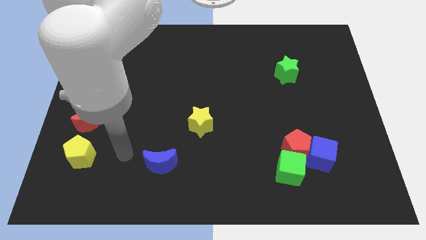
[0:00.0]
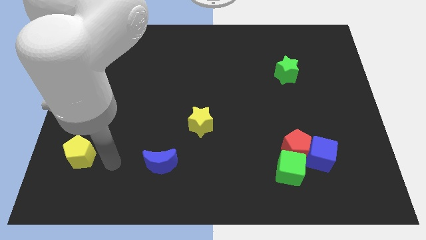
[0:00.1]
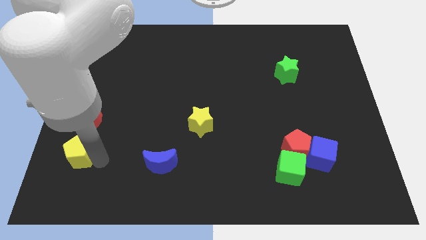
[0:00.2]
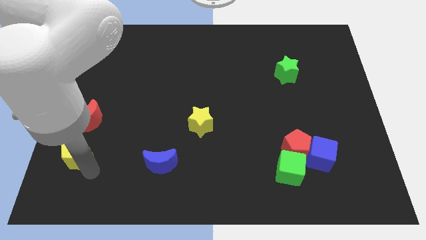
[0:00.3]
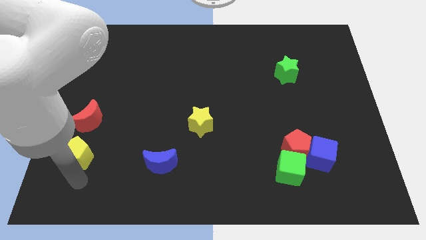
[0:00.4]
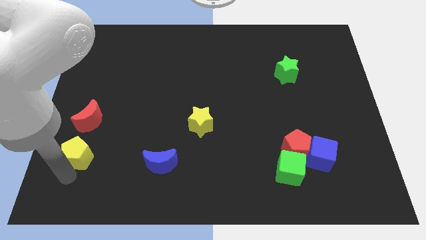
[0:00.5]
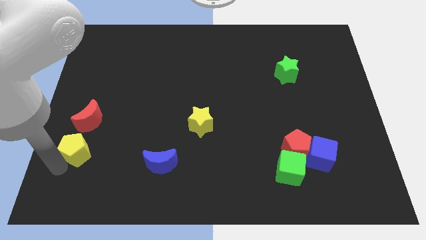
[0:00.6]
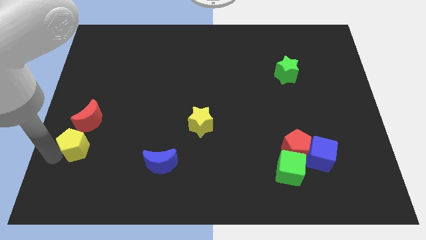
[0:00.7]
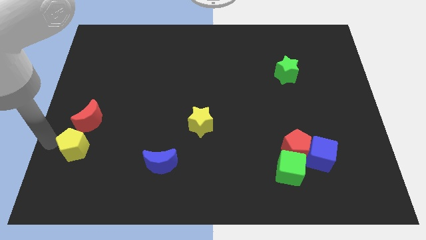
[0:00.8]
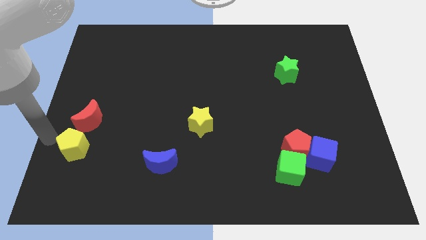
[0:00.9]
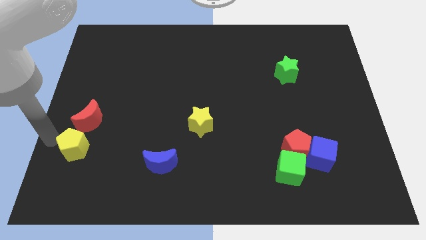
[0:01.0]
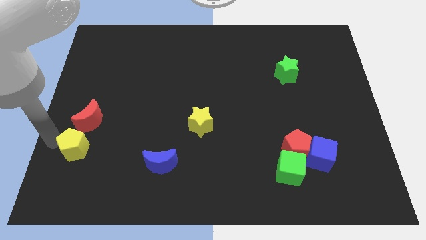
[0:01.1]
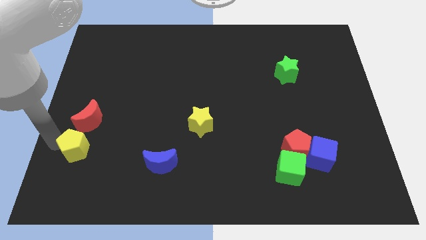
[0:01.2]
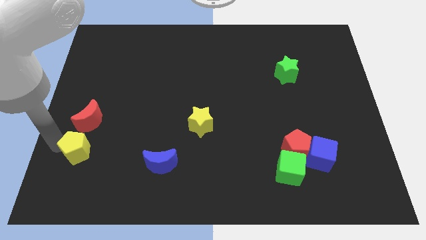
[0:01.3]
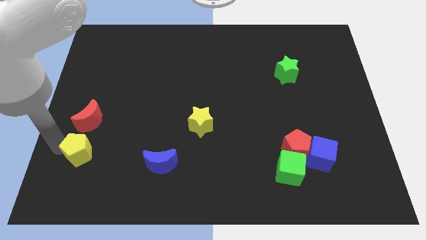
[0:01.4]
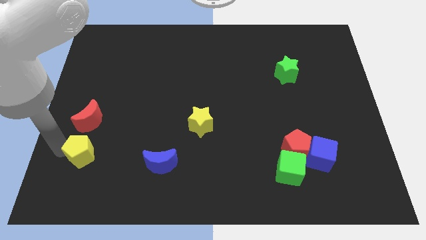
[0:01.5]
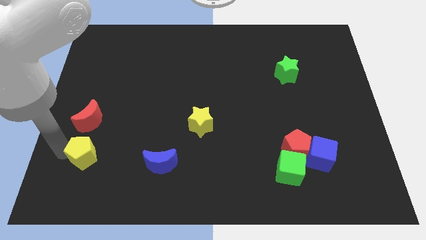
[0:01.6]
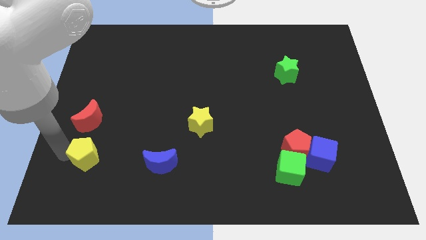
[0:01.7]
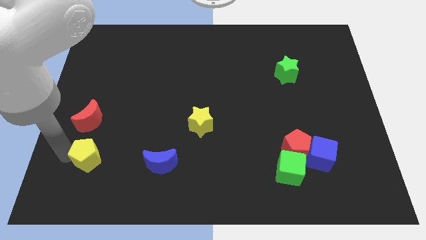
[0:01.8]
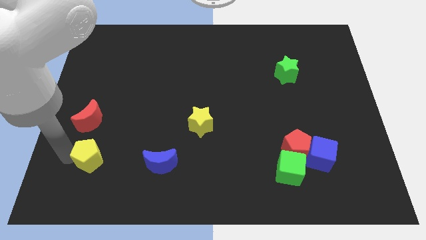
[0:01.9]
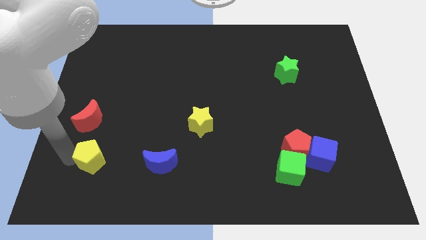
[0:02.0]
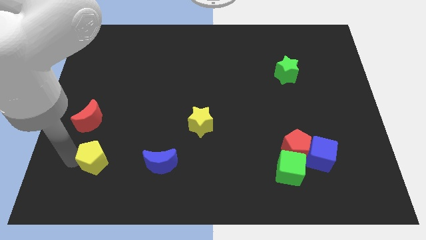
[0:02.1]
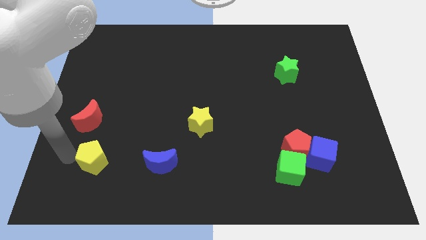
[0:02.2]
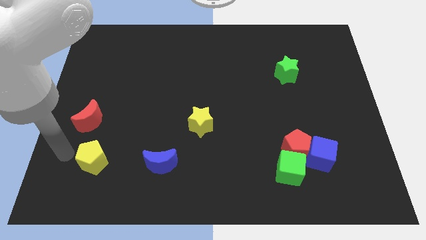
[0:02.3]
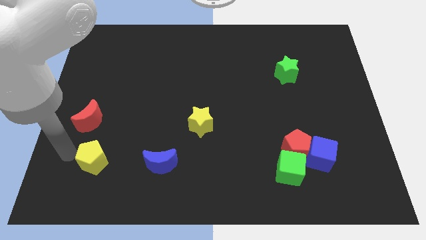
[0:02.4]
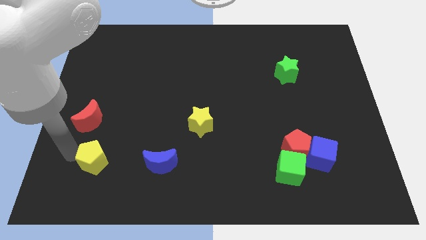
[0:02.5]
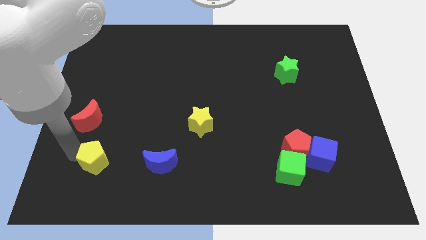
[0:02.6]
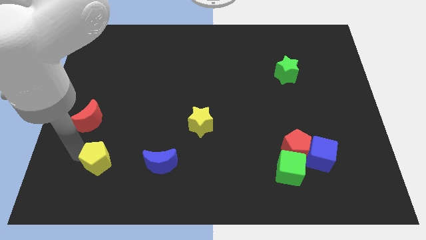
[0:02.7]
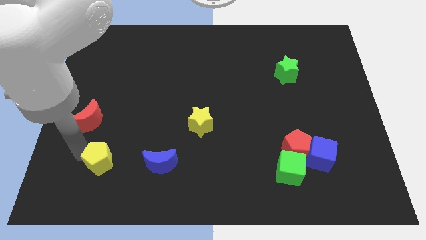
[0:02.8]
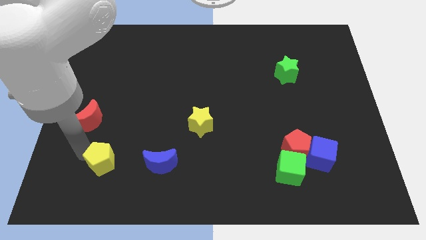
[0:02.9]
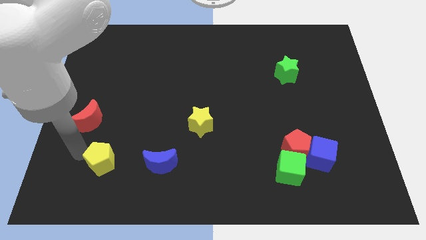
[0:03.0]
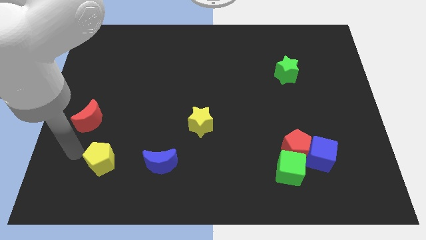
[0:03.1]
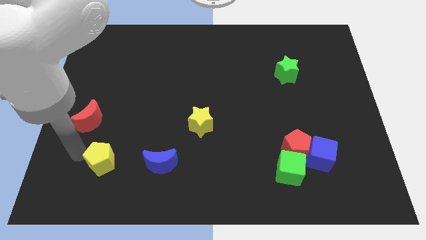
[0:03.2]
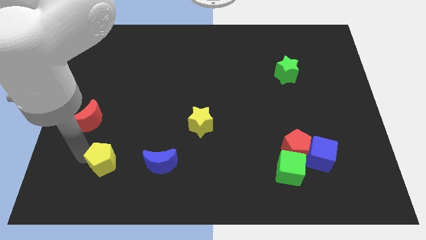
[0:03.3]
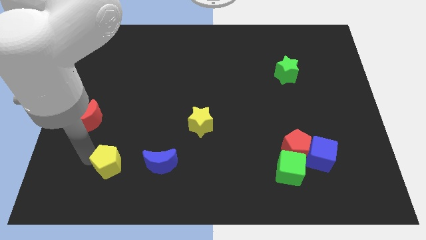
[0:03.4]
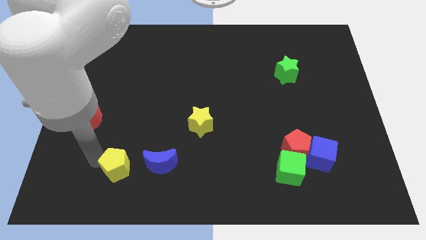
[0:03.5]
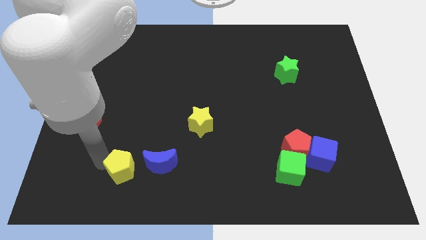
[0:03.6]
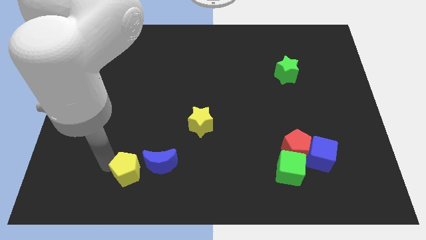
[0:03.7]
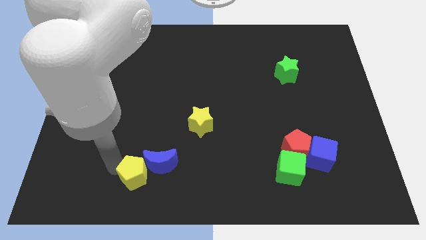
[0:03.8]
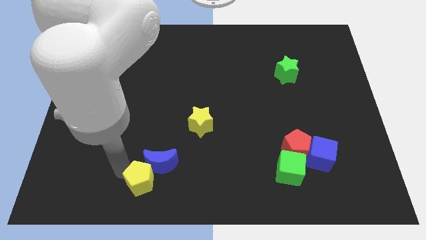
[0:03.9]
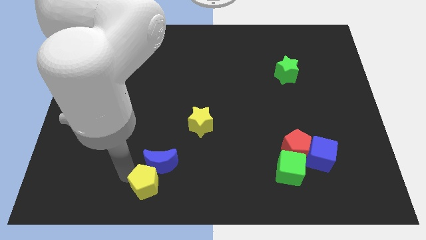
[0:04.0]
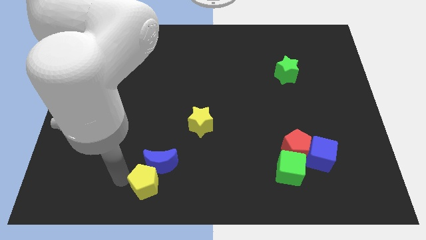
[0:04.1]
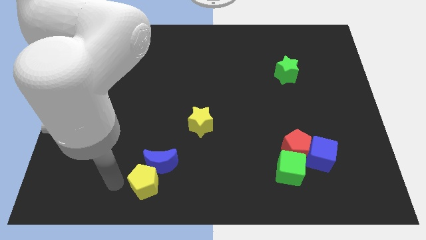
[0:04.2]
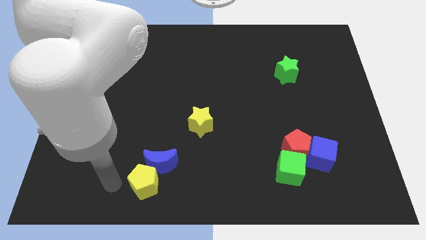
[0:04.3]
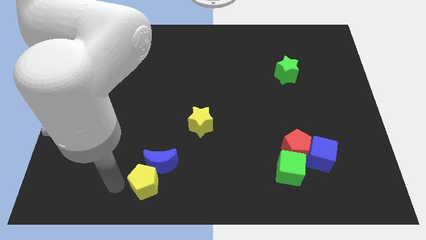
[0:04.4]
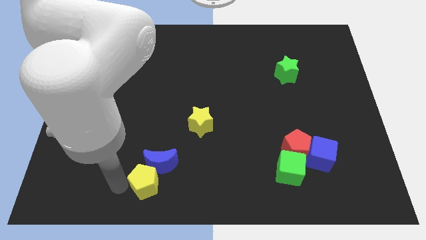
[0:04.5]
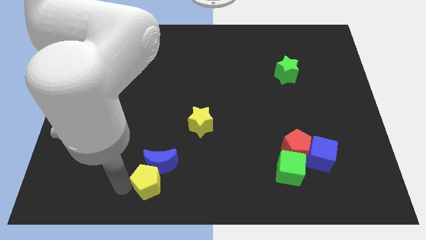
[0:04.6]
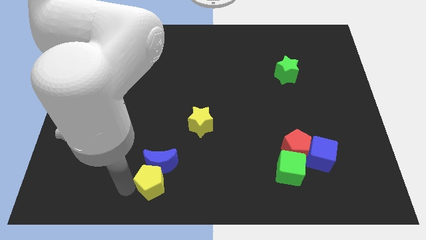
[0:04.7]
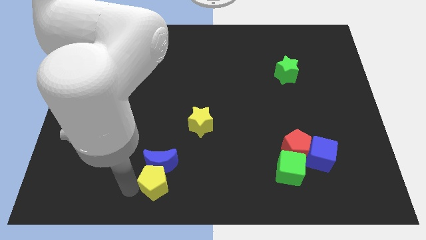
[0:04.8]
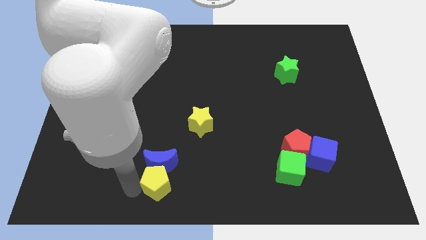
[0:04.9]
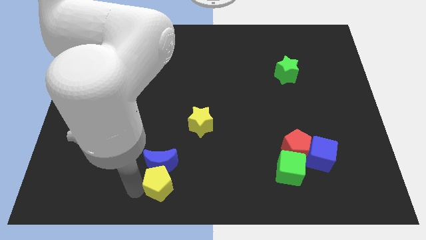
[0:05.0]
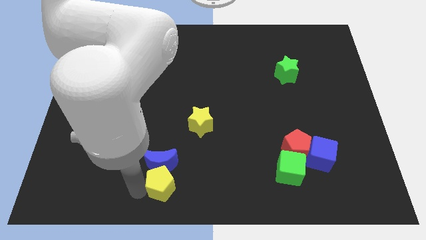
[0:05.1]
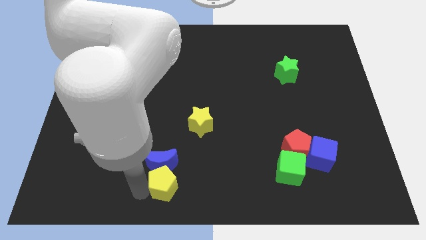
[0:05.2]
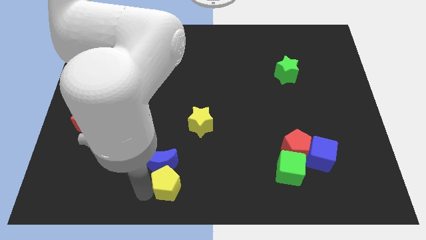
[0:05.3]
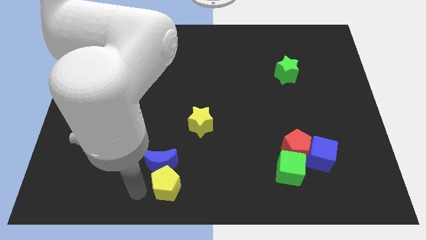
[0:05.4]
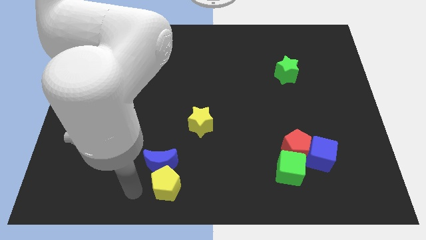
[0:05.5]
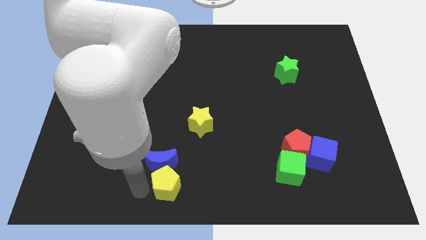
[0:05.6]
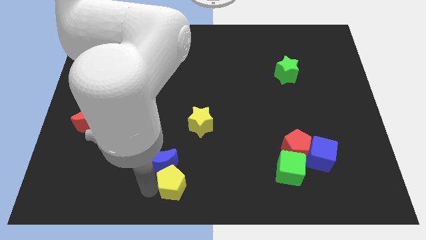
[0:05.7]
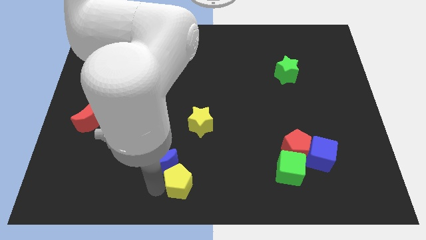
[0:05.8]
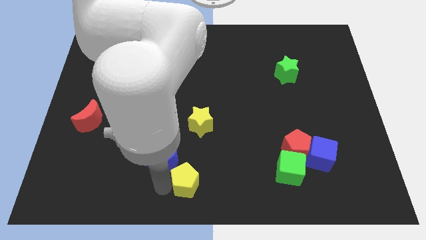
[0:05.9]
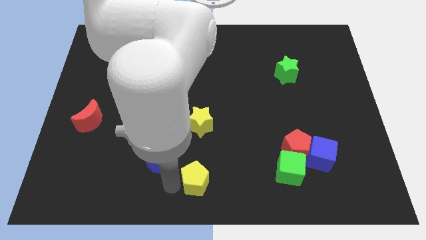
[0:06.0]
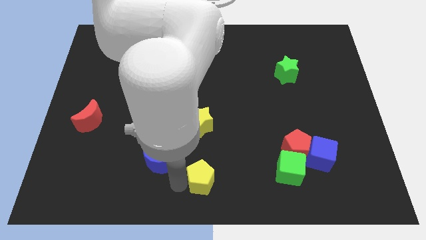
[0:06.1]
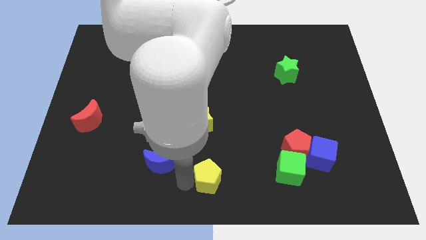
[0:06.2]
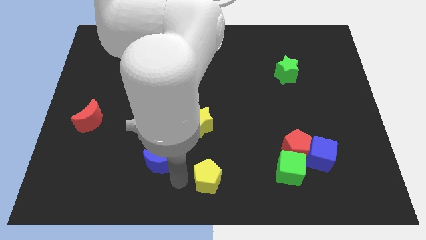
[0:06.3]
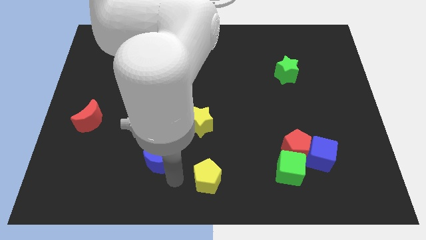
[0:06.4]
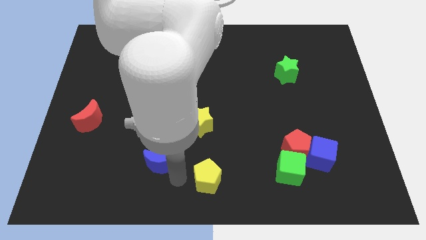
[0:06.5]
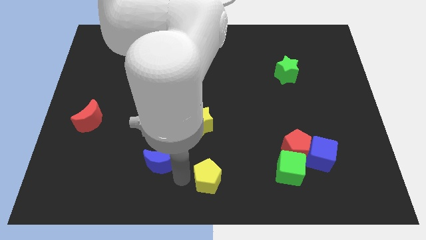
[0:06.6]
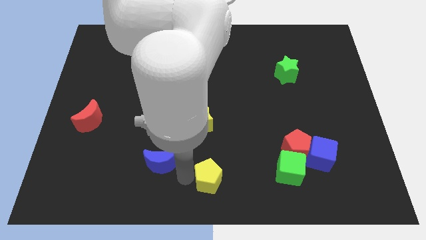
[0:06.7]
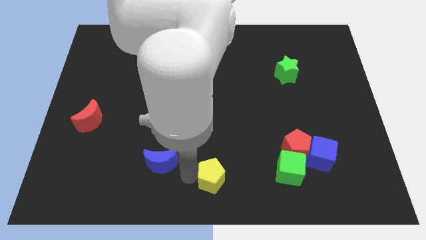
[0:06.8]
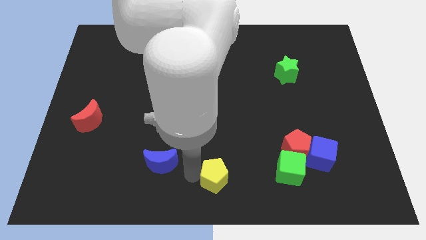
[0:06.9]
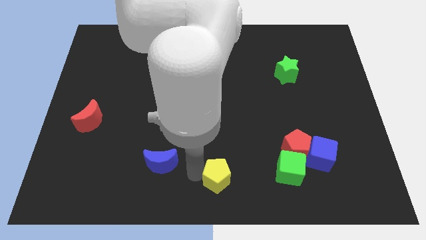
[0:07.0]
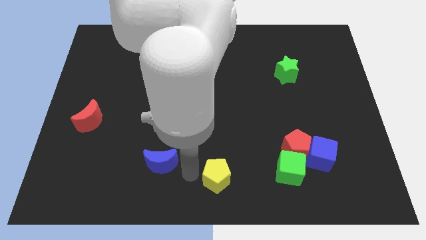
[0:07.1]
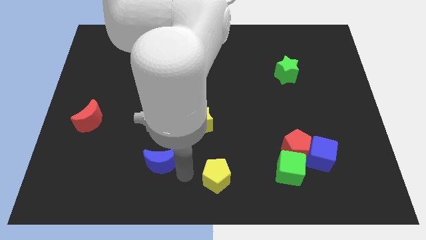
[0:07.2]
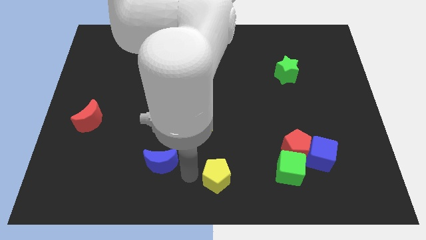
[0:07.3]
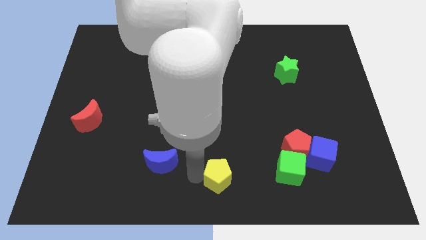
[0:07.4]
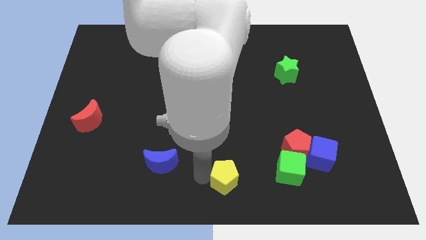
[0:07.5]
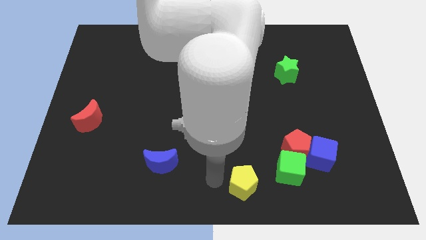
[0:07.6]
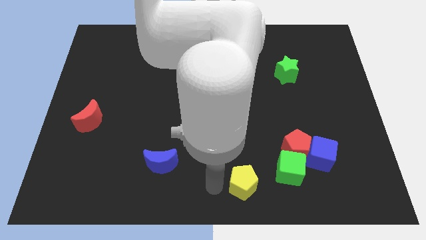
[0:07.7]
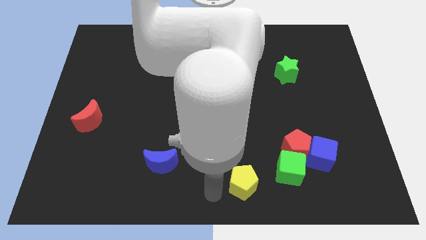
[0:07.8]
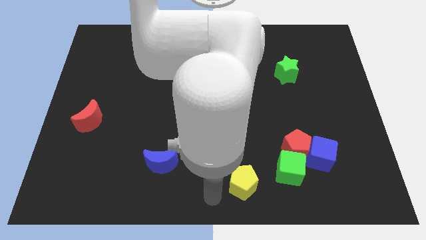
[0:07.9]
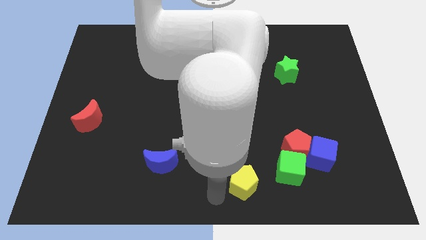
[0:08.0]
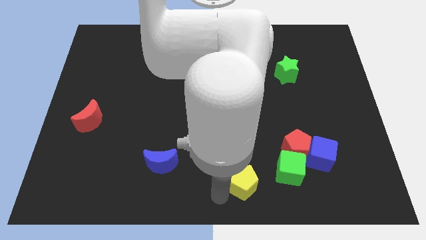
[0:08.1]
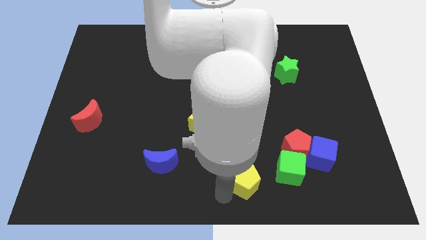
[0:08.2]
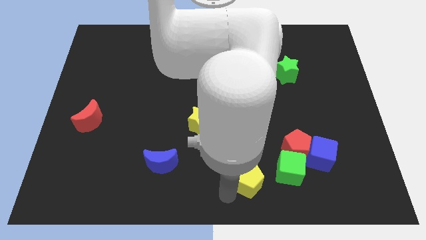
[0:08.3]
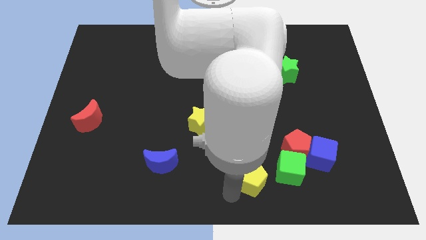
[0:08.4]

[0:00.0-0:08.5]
slide the yellow pentagon to the bottom left of the red pentagon
